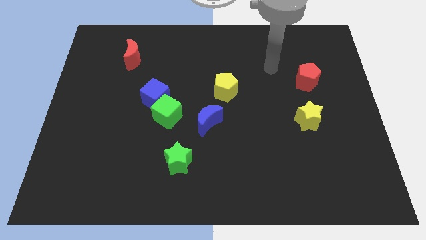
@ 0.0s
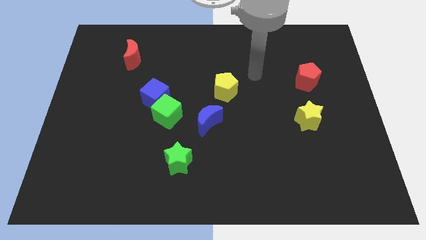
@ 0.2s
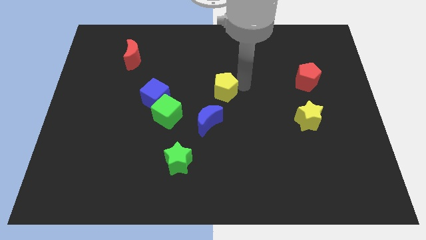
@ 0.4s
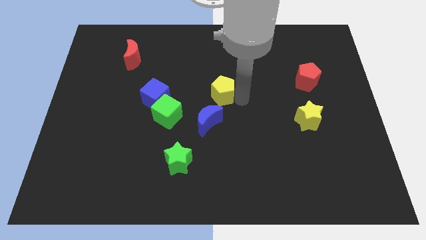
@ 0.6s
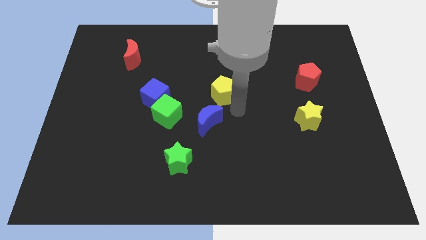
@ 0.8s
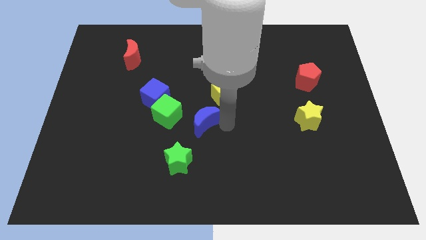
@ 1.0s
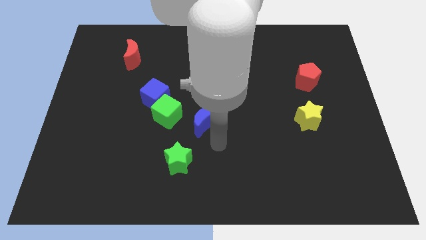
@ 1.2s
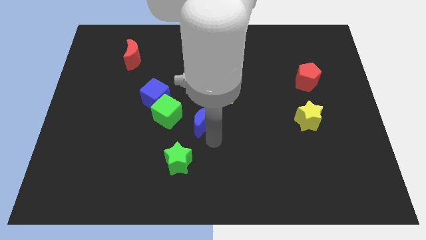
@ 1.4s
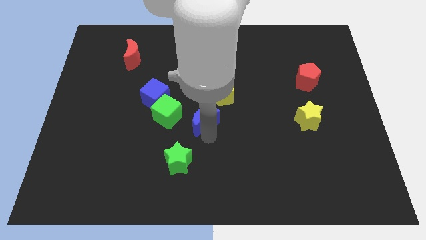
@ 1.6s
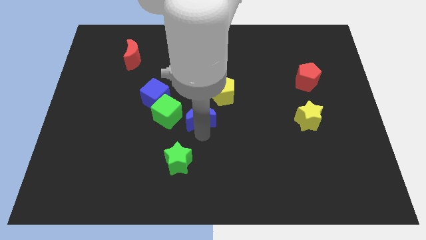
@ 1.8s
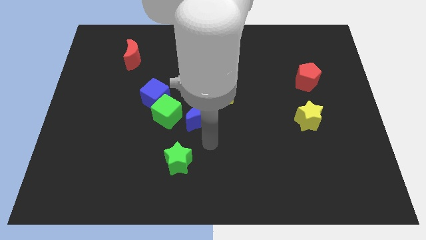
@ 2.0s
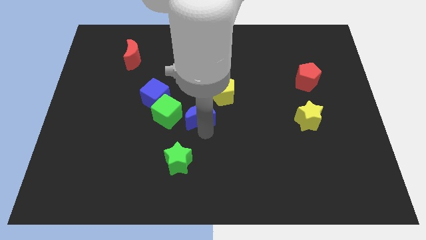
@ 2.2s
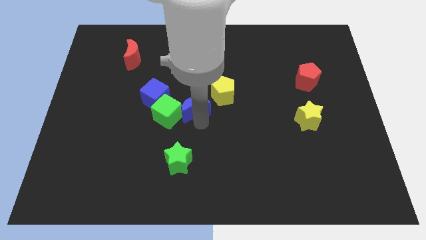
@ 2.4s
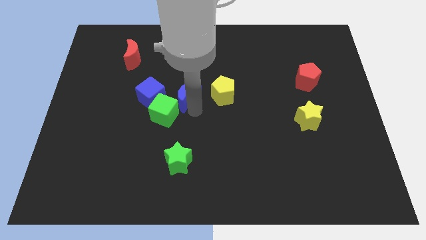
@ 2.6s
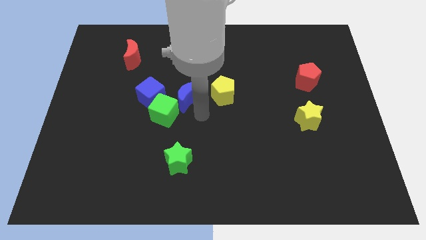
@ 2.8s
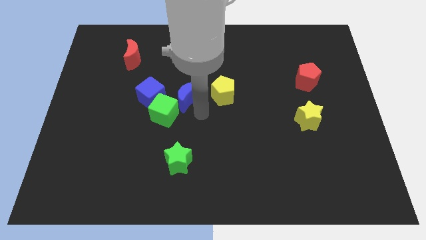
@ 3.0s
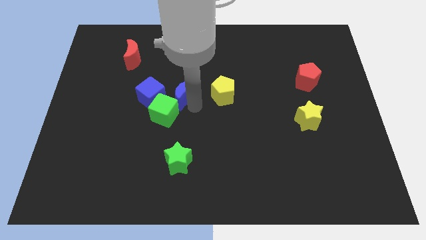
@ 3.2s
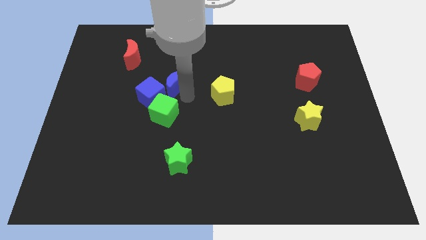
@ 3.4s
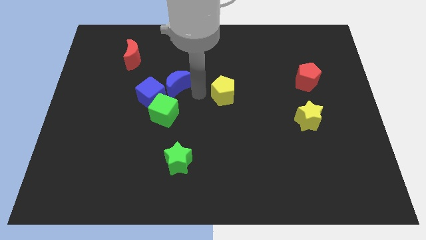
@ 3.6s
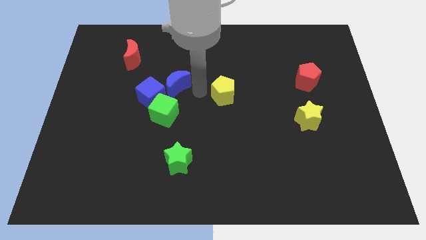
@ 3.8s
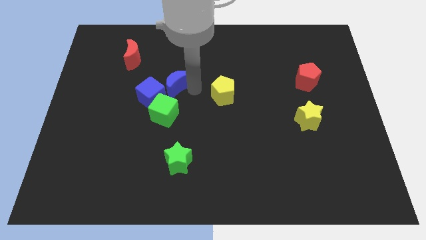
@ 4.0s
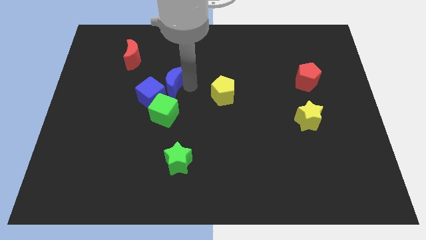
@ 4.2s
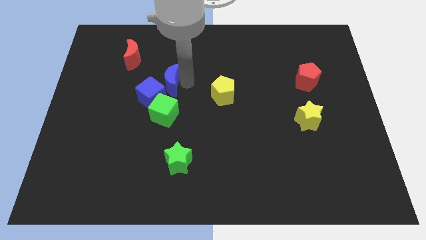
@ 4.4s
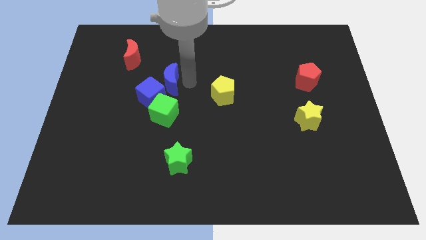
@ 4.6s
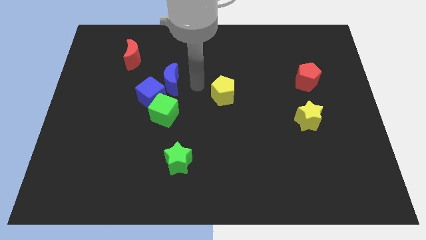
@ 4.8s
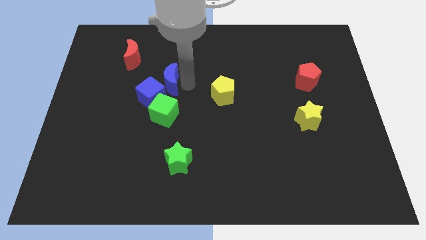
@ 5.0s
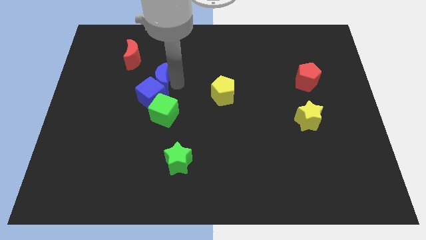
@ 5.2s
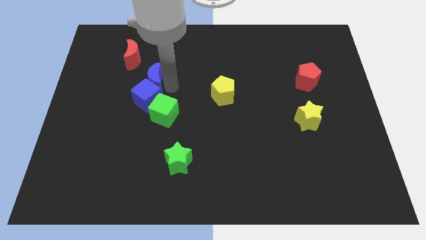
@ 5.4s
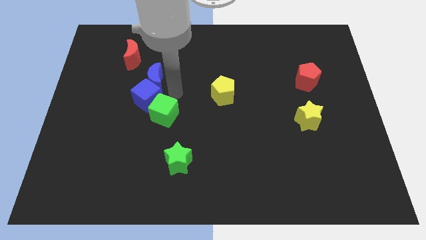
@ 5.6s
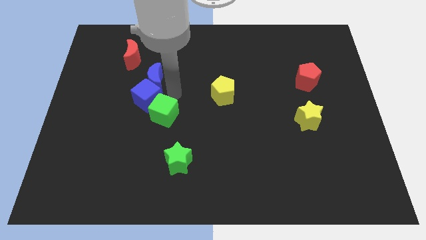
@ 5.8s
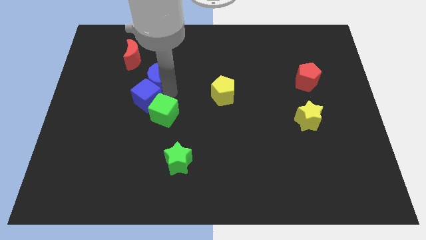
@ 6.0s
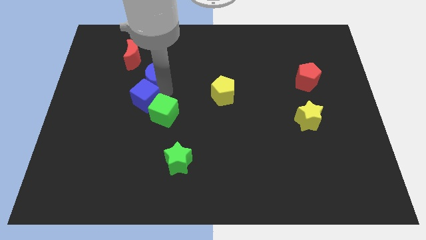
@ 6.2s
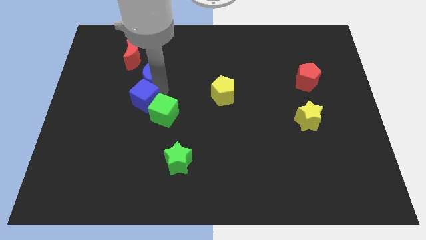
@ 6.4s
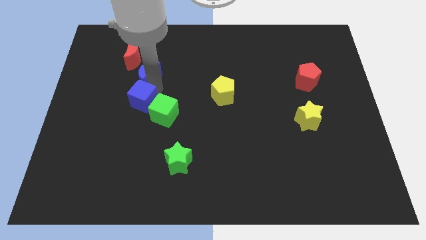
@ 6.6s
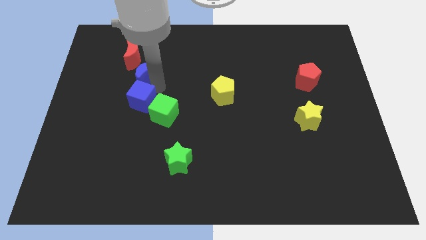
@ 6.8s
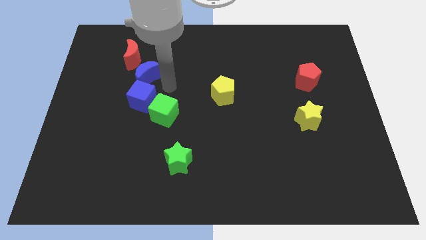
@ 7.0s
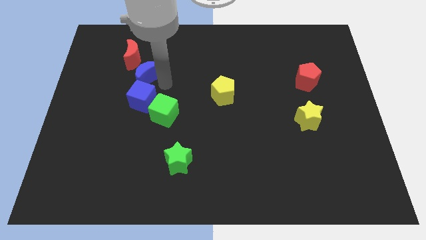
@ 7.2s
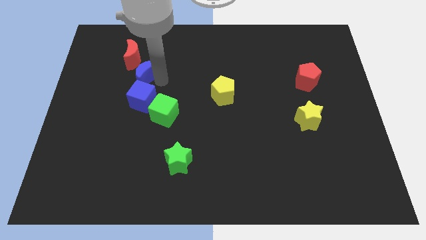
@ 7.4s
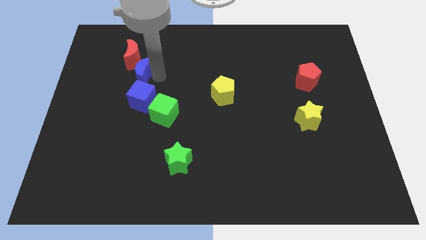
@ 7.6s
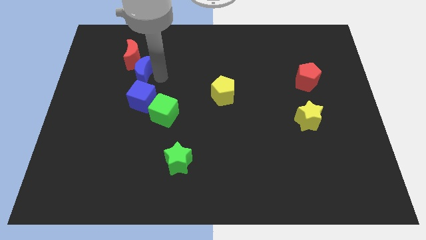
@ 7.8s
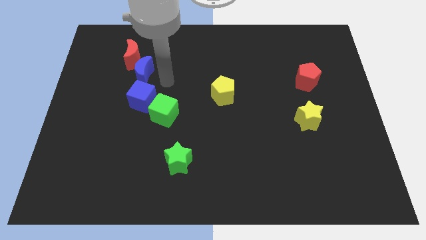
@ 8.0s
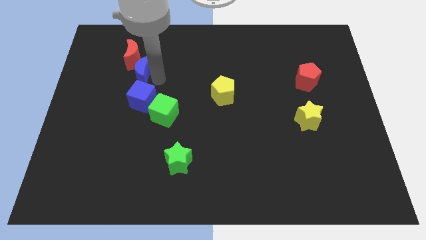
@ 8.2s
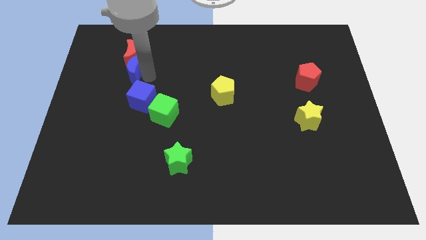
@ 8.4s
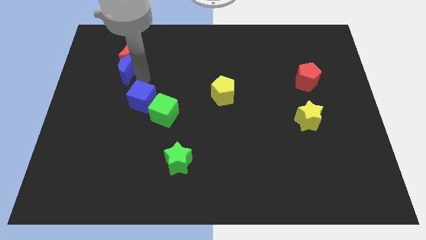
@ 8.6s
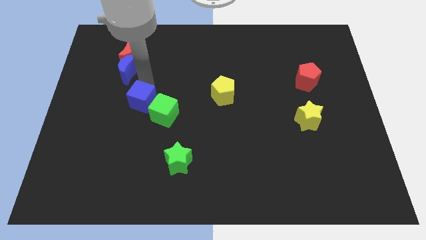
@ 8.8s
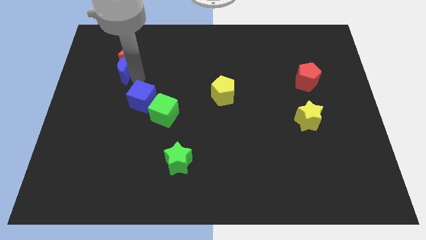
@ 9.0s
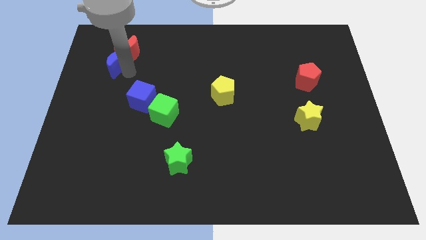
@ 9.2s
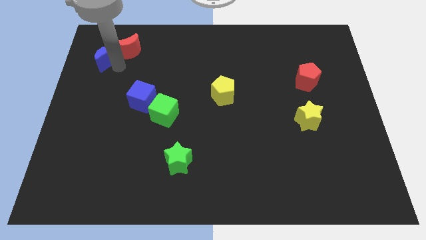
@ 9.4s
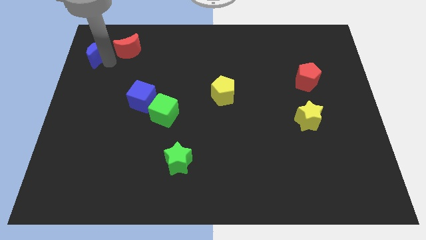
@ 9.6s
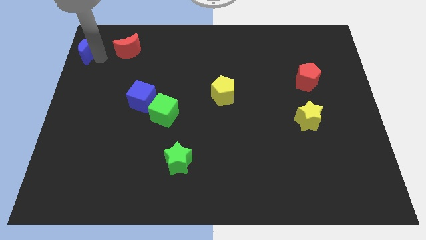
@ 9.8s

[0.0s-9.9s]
move the blue moon to the top left
